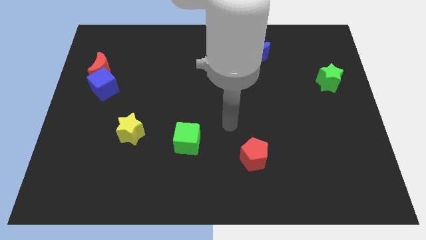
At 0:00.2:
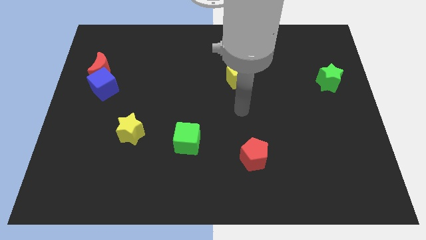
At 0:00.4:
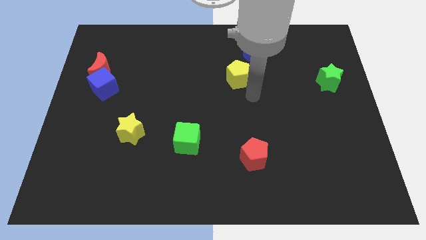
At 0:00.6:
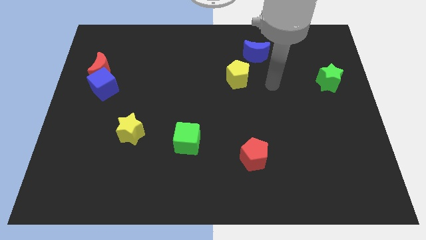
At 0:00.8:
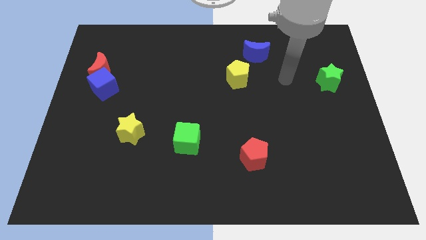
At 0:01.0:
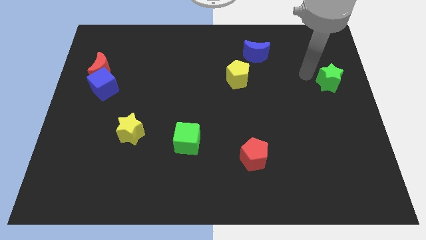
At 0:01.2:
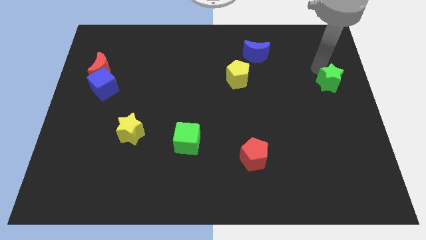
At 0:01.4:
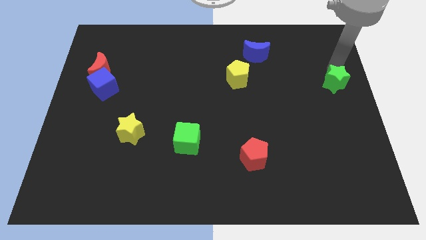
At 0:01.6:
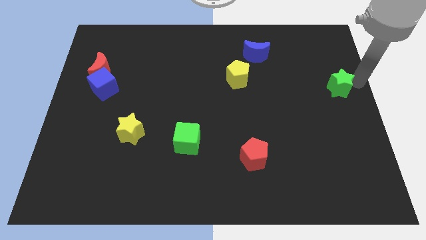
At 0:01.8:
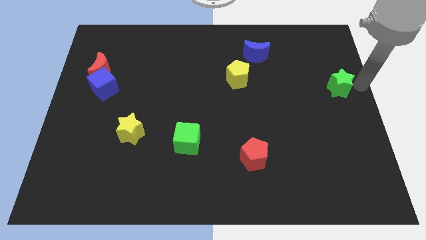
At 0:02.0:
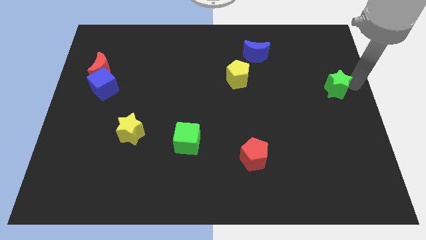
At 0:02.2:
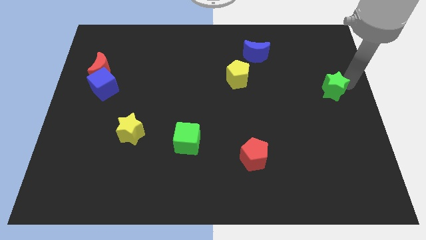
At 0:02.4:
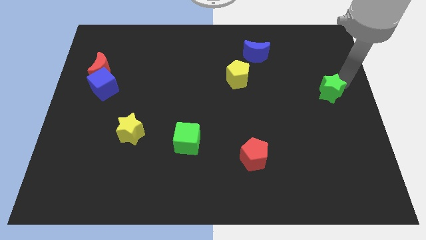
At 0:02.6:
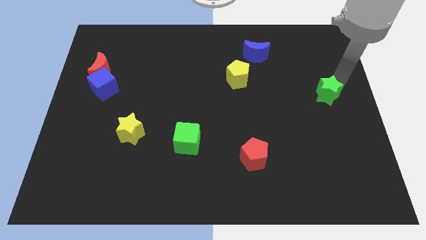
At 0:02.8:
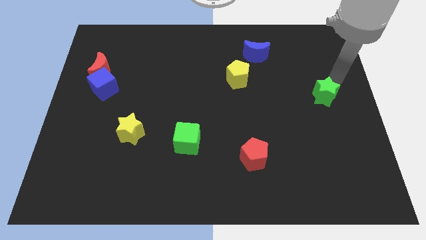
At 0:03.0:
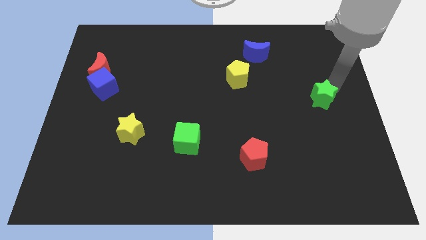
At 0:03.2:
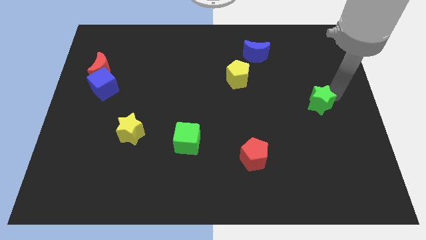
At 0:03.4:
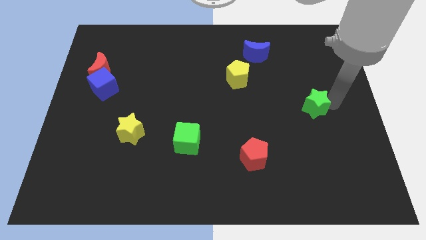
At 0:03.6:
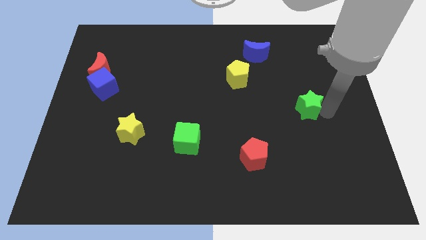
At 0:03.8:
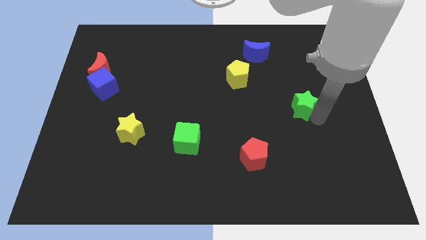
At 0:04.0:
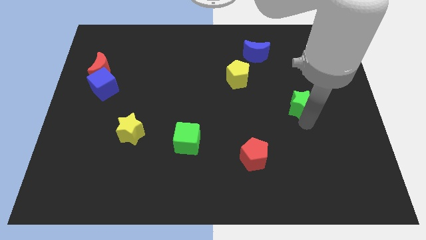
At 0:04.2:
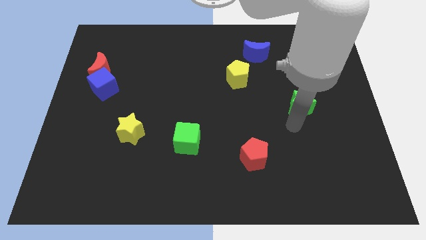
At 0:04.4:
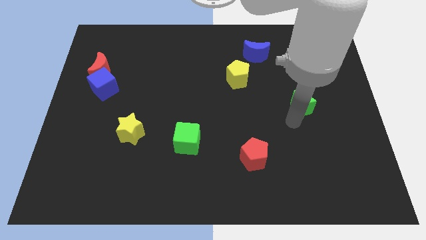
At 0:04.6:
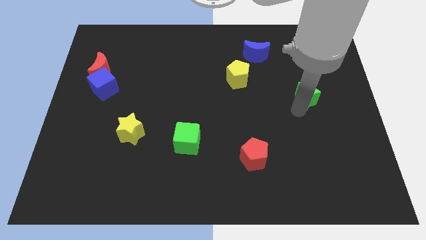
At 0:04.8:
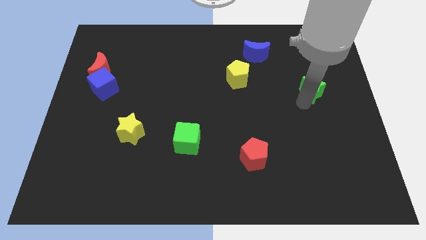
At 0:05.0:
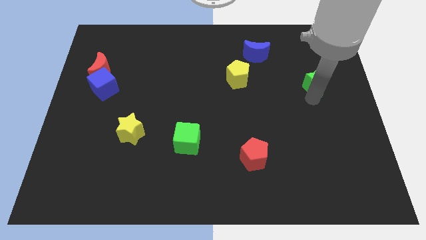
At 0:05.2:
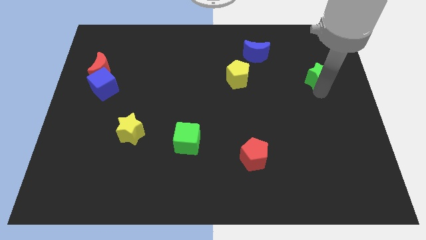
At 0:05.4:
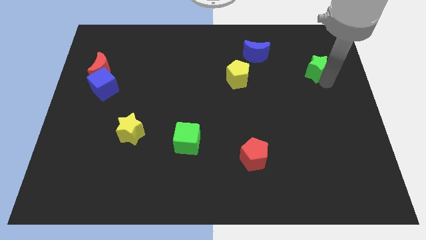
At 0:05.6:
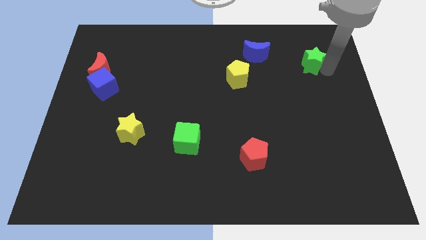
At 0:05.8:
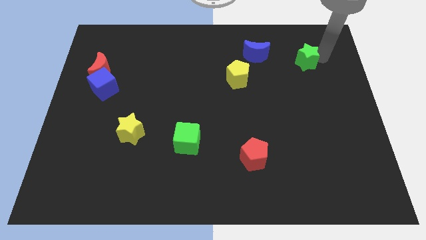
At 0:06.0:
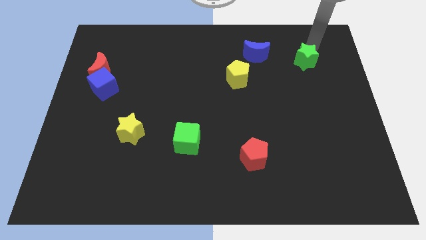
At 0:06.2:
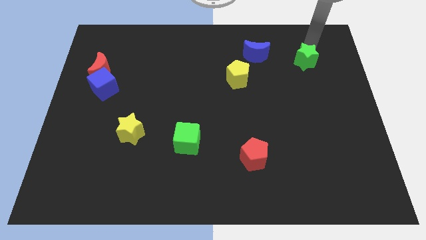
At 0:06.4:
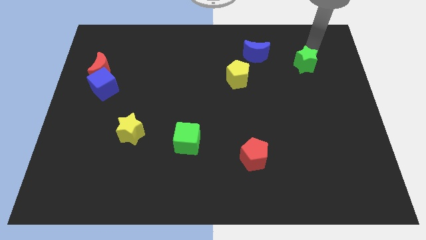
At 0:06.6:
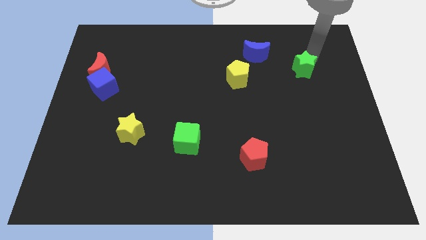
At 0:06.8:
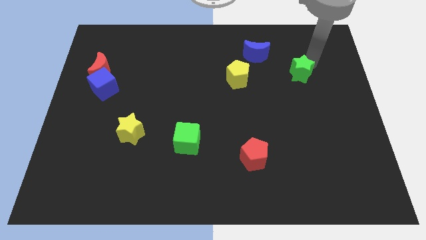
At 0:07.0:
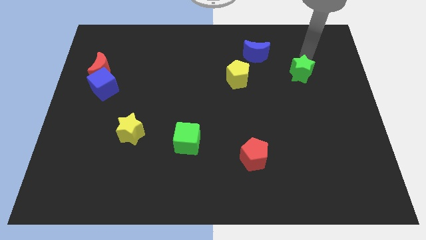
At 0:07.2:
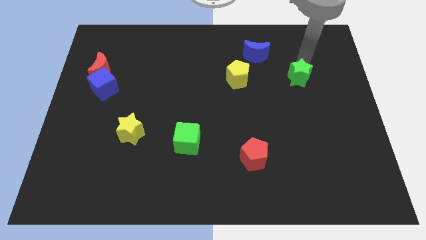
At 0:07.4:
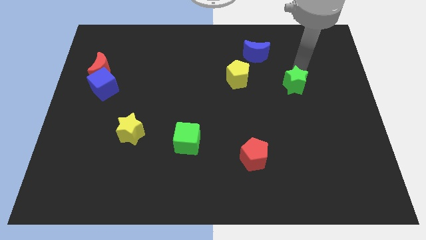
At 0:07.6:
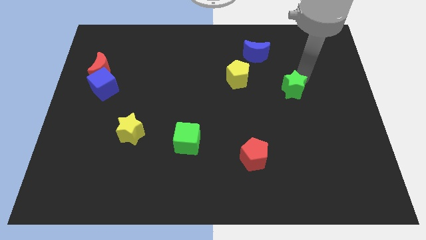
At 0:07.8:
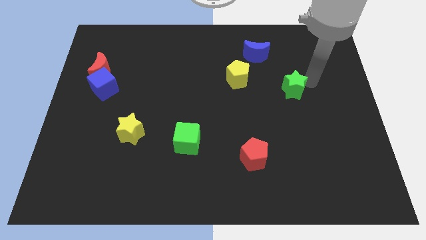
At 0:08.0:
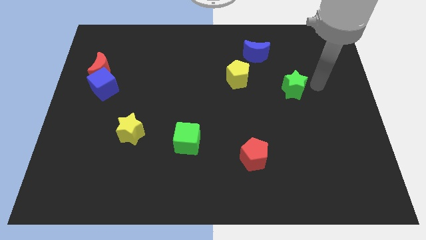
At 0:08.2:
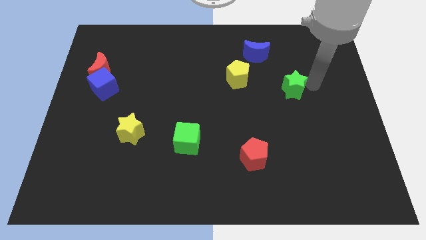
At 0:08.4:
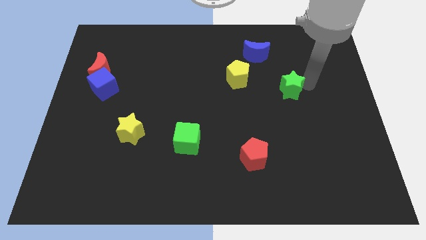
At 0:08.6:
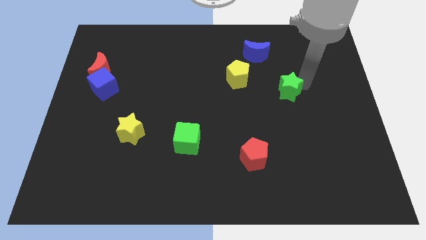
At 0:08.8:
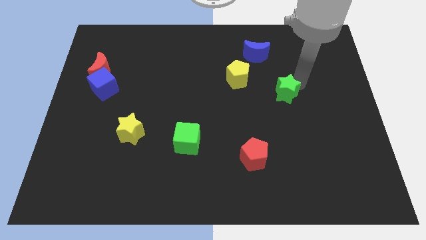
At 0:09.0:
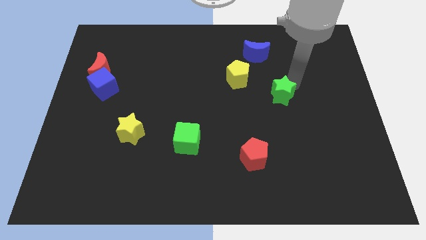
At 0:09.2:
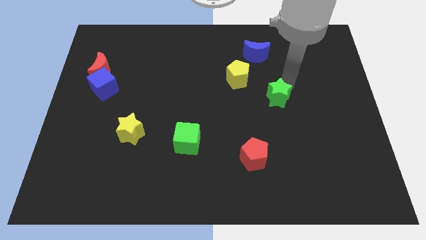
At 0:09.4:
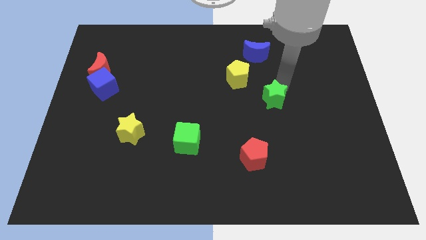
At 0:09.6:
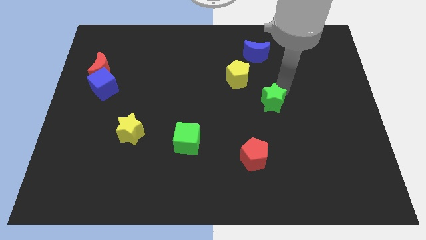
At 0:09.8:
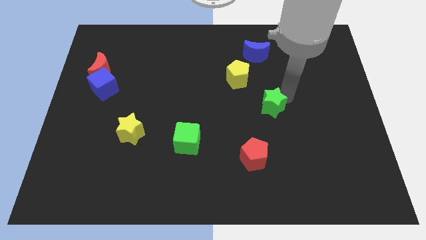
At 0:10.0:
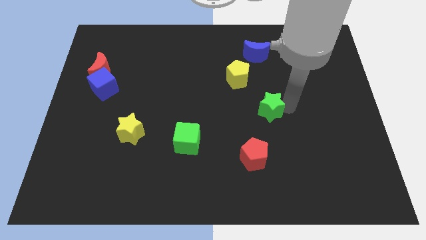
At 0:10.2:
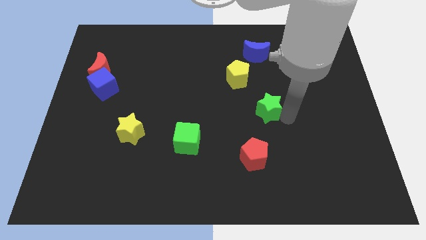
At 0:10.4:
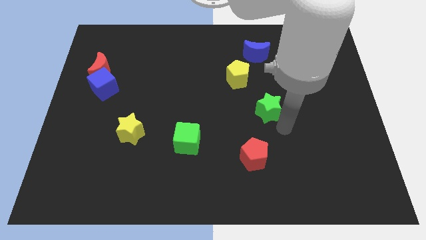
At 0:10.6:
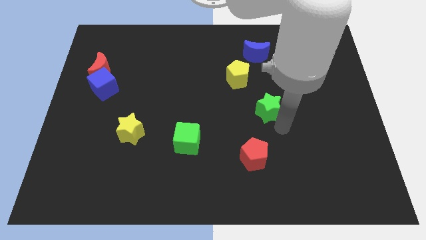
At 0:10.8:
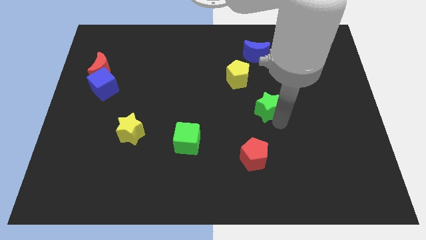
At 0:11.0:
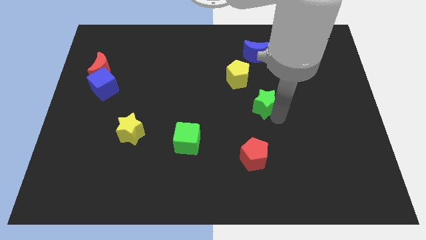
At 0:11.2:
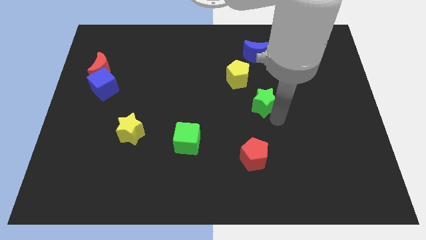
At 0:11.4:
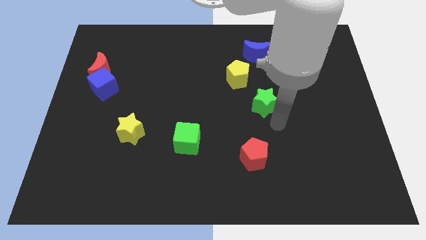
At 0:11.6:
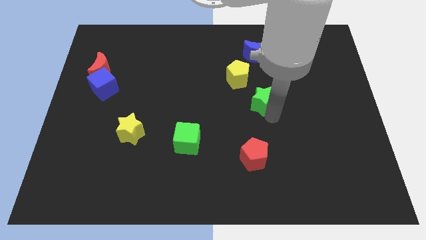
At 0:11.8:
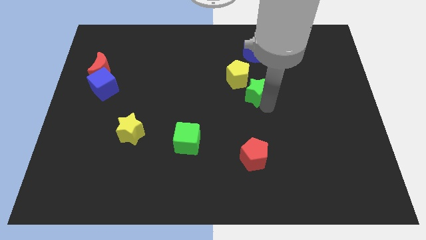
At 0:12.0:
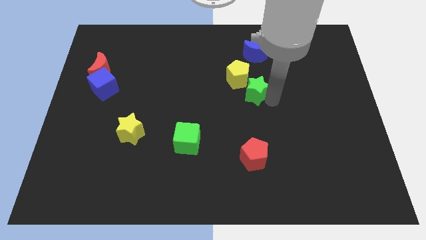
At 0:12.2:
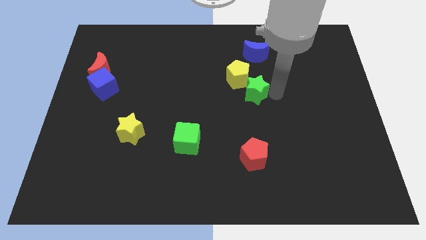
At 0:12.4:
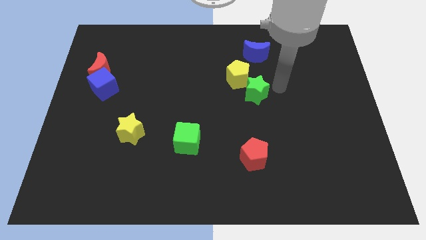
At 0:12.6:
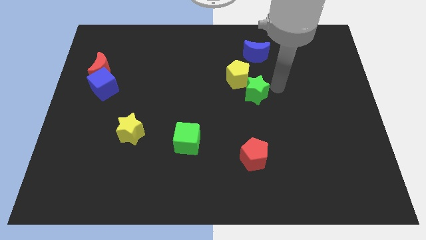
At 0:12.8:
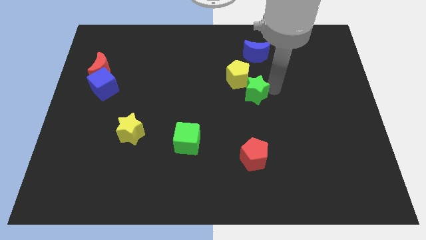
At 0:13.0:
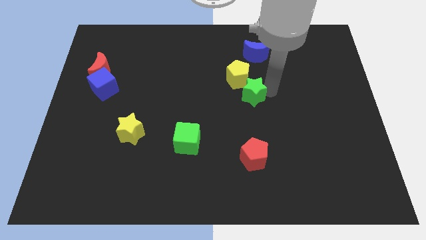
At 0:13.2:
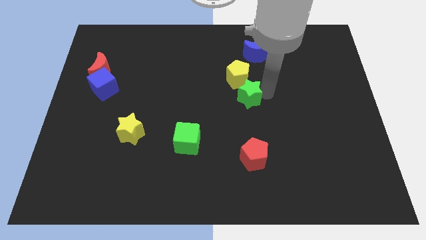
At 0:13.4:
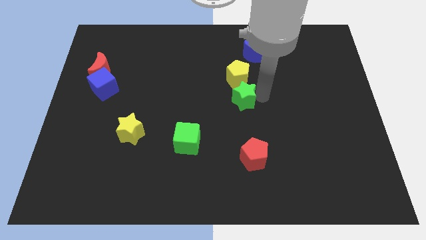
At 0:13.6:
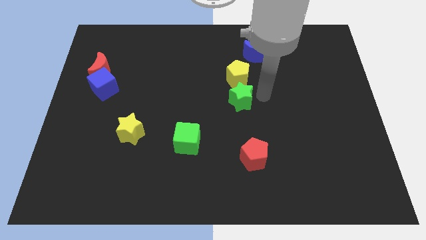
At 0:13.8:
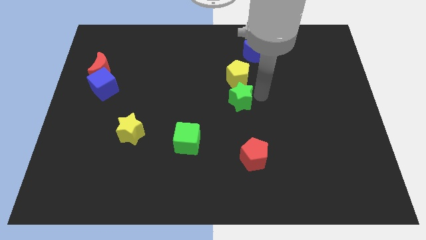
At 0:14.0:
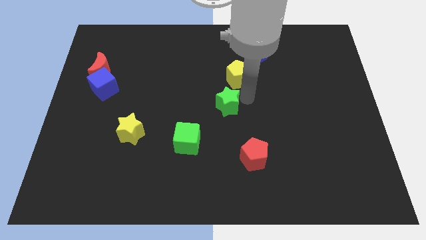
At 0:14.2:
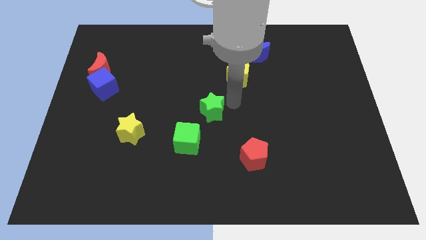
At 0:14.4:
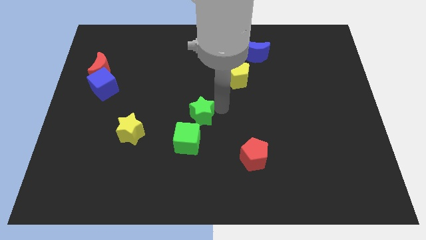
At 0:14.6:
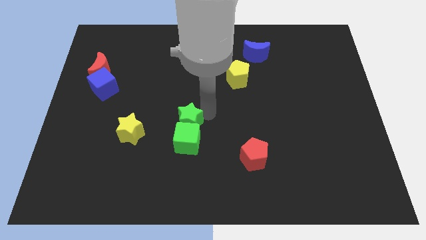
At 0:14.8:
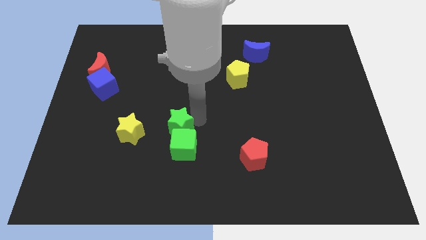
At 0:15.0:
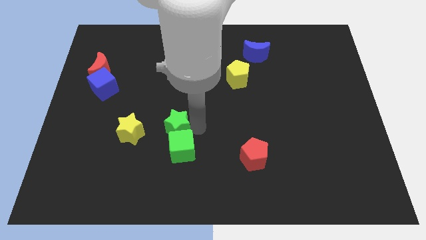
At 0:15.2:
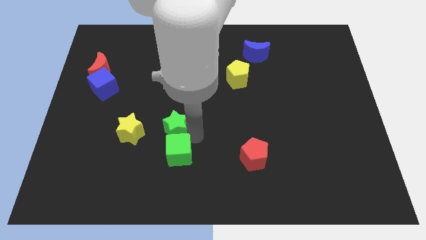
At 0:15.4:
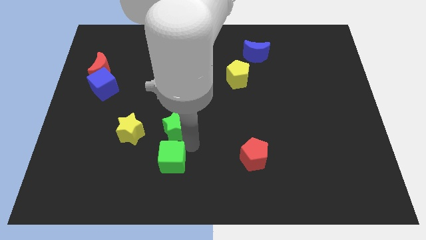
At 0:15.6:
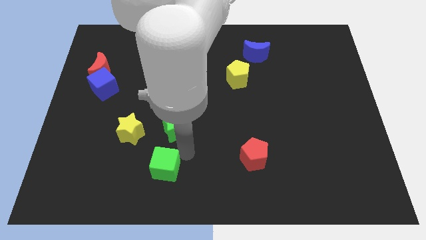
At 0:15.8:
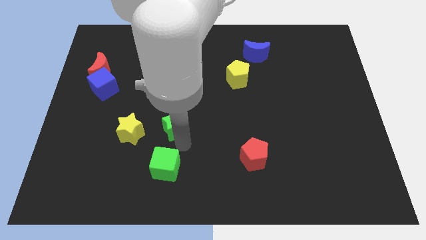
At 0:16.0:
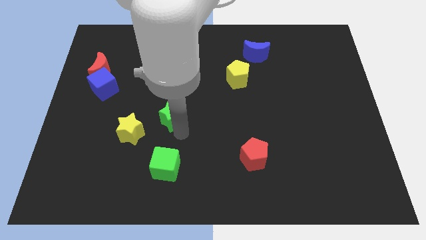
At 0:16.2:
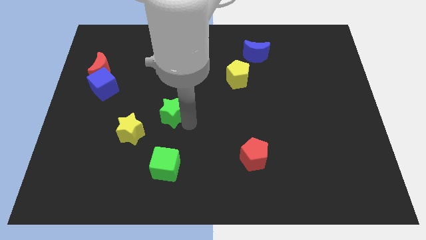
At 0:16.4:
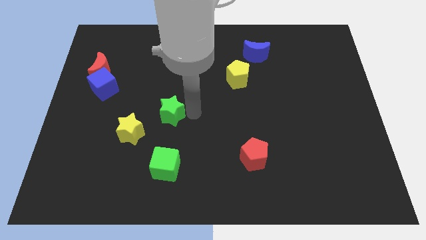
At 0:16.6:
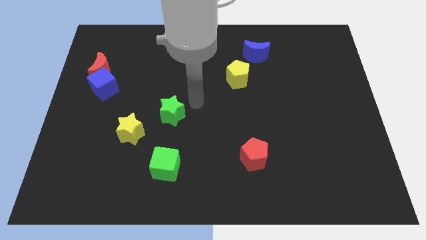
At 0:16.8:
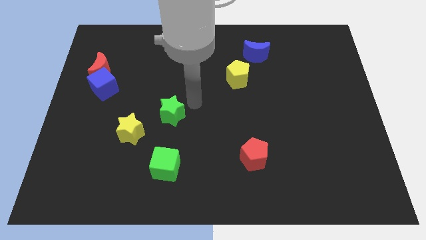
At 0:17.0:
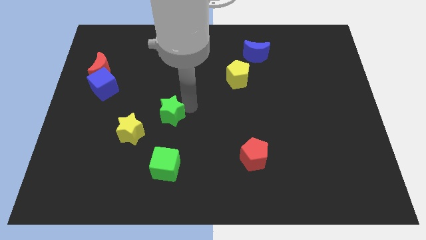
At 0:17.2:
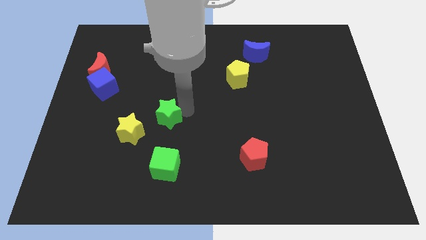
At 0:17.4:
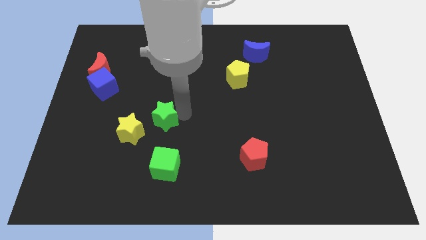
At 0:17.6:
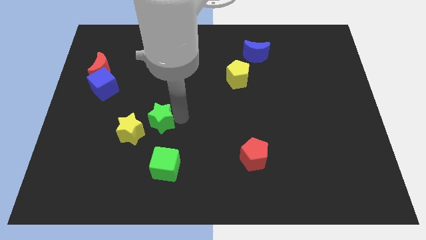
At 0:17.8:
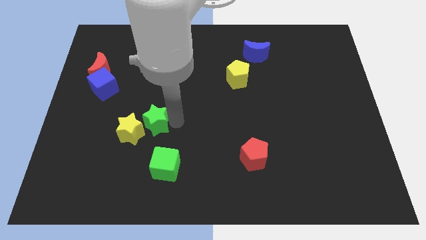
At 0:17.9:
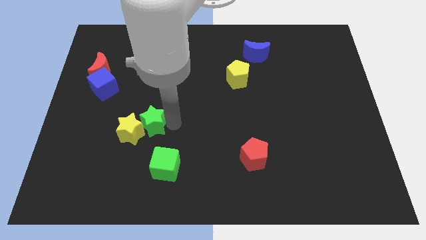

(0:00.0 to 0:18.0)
slide the green star towards the yellow star
